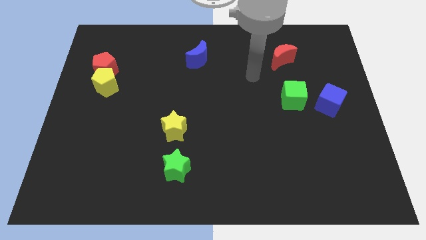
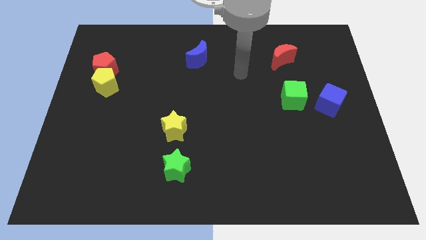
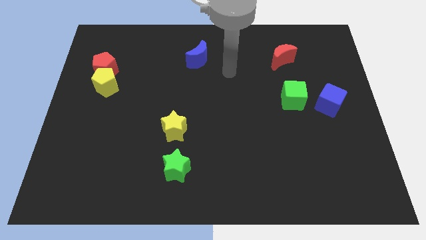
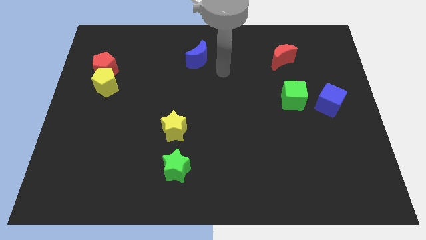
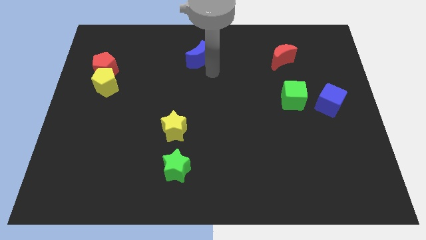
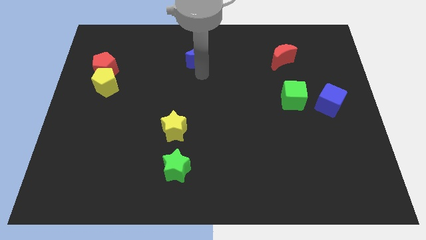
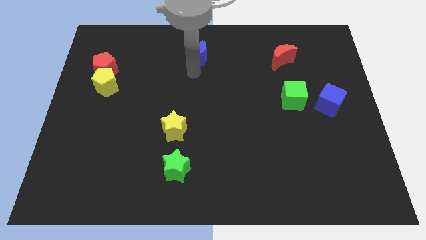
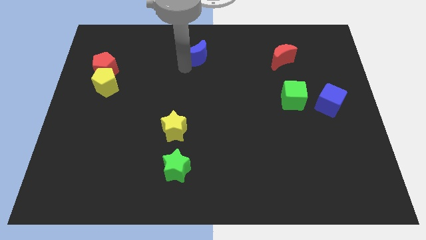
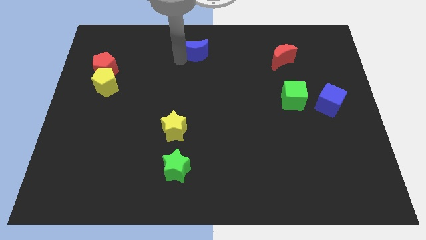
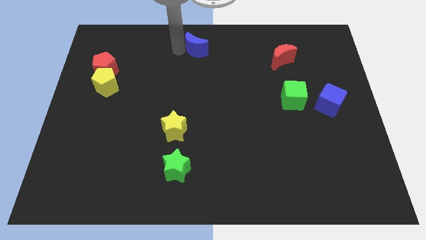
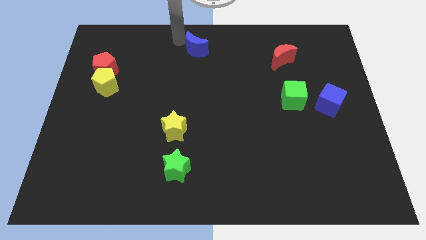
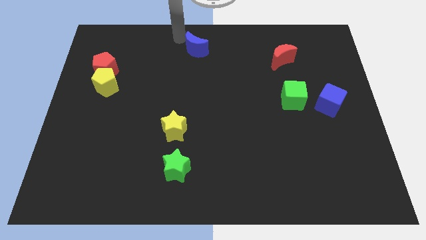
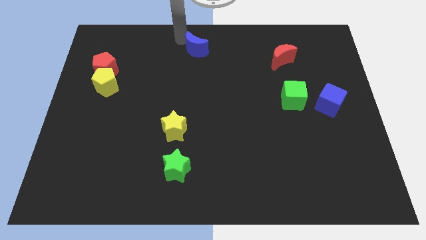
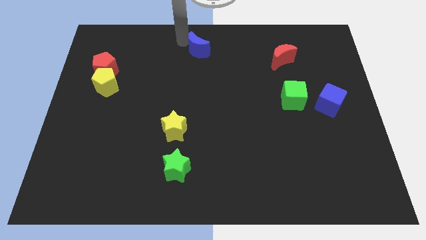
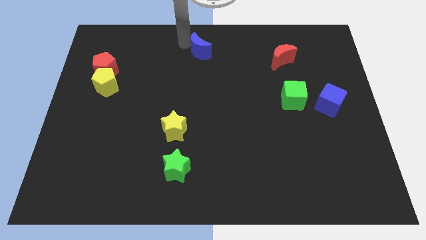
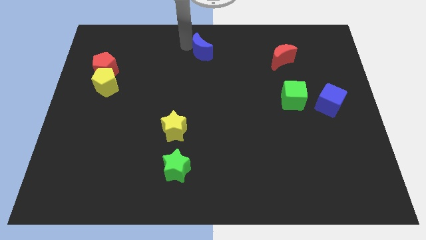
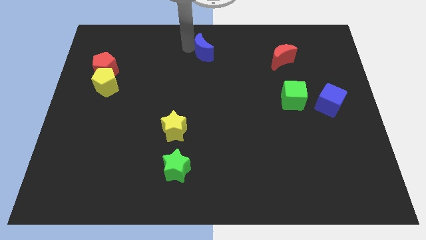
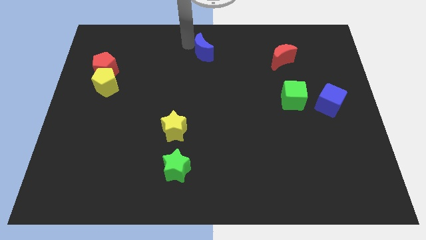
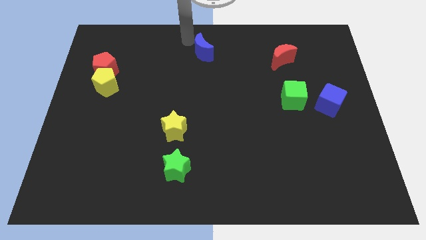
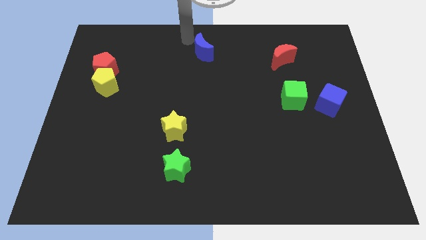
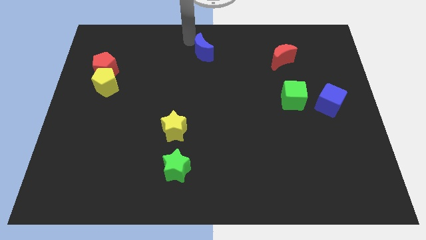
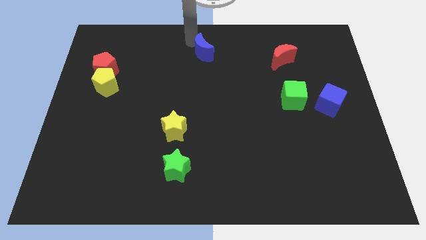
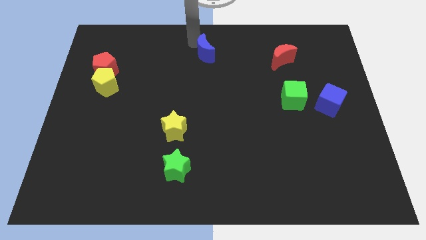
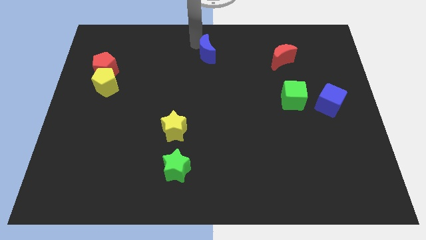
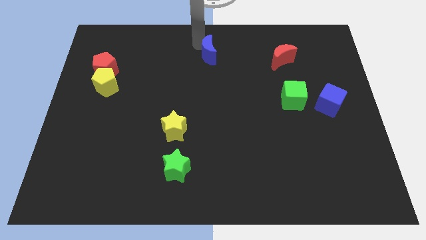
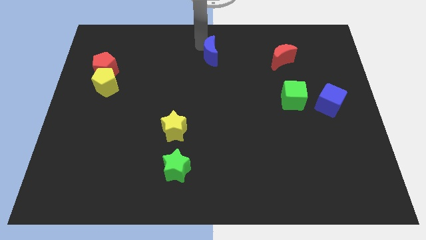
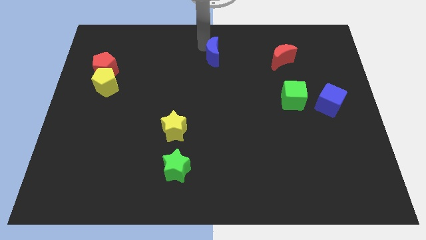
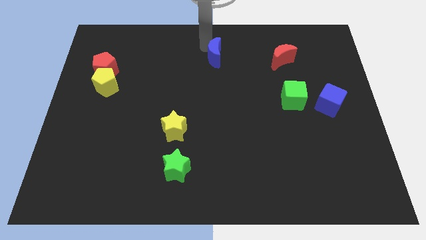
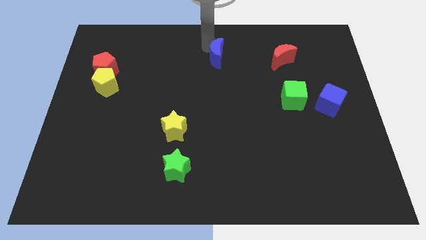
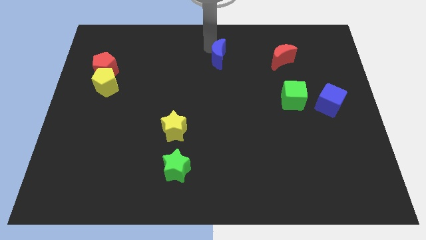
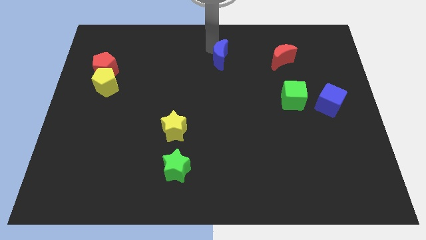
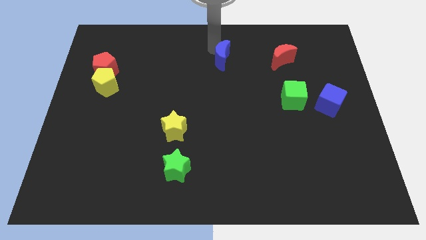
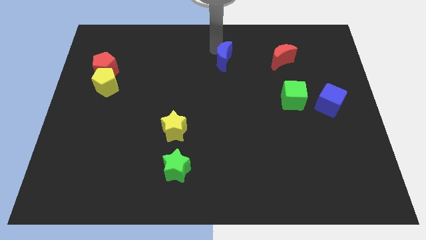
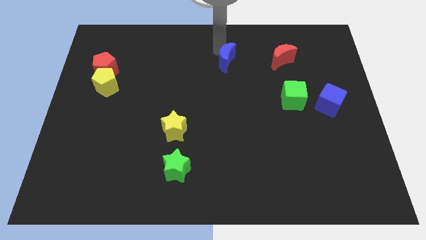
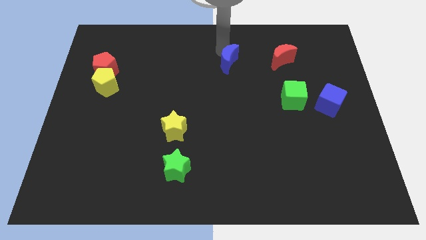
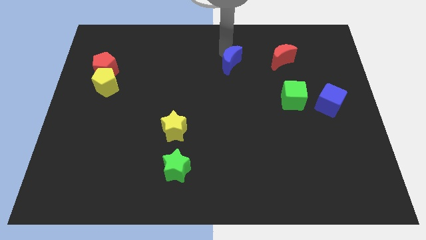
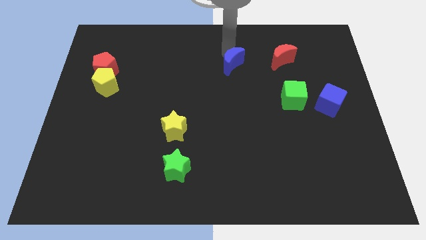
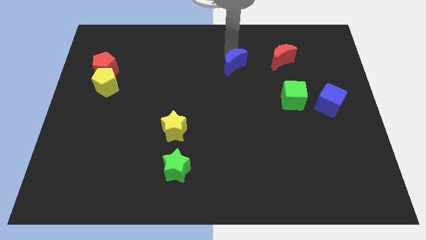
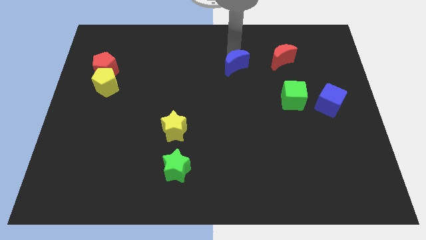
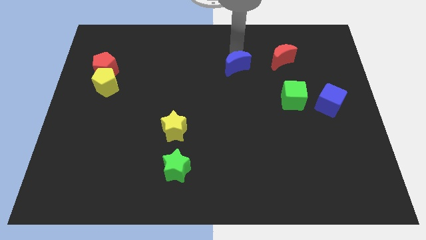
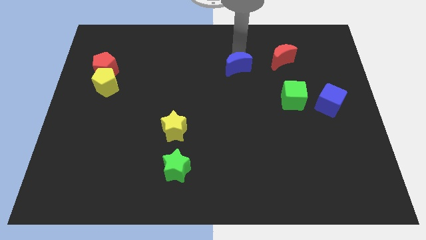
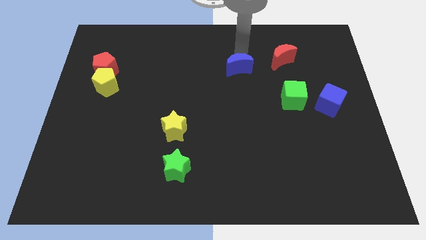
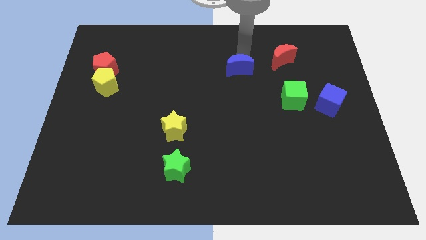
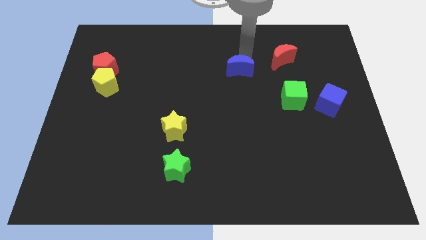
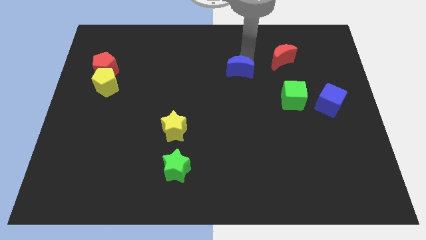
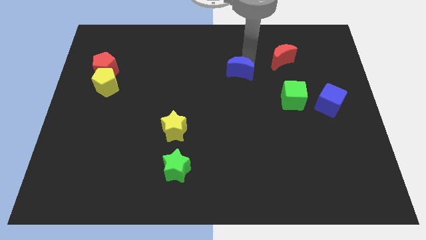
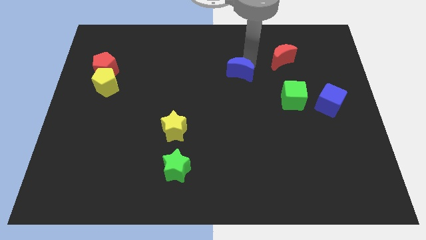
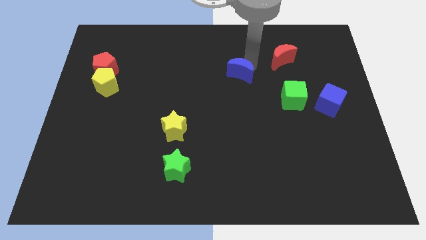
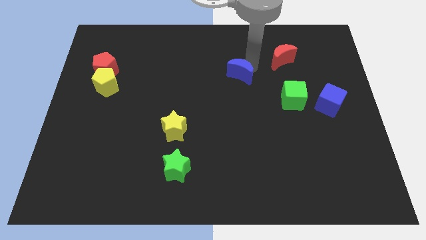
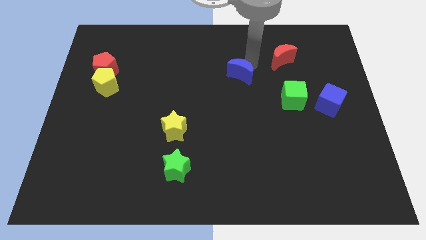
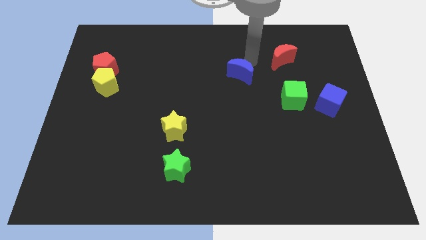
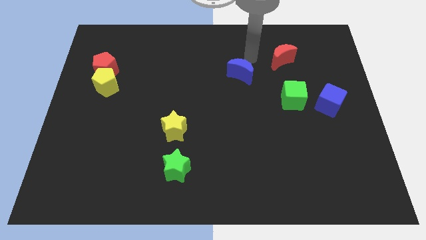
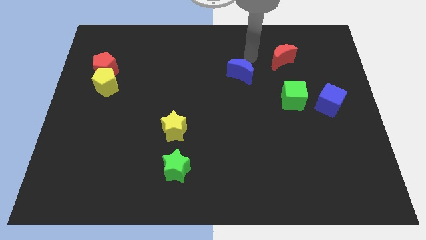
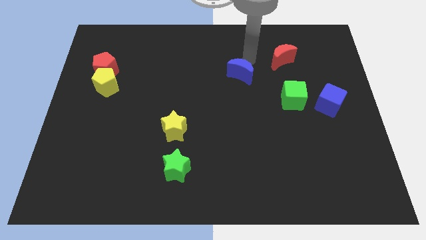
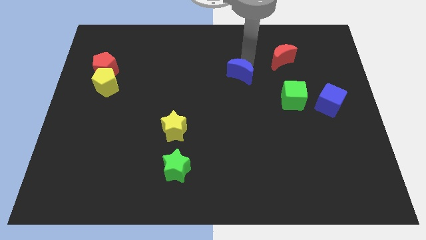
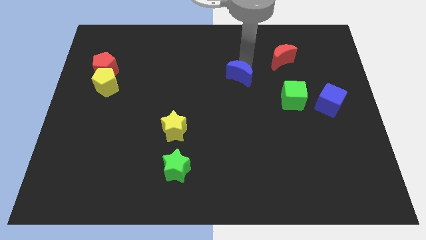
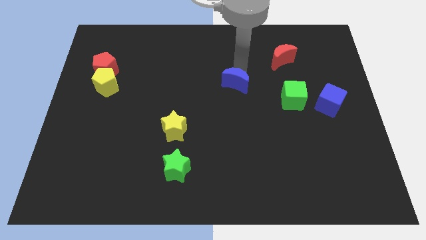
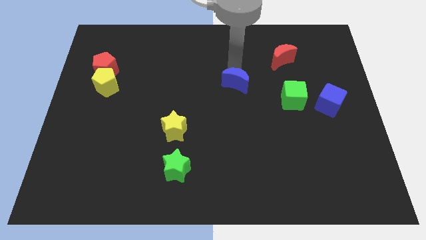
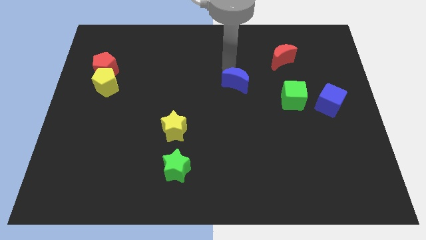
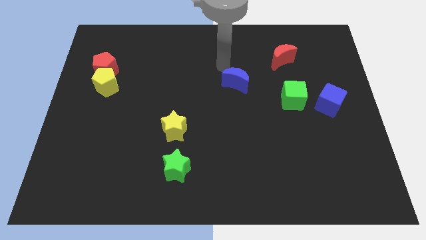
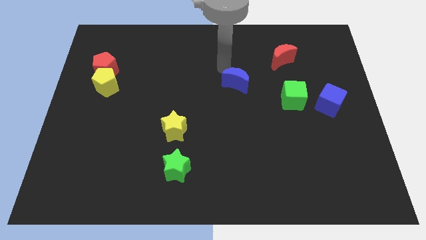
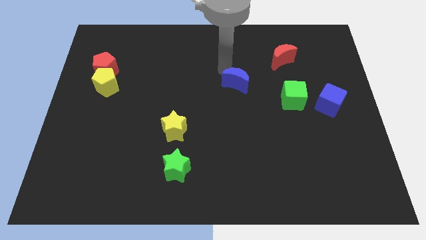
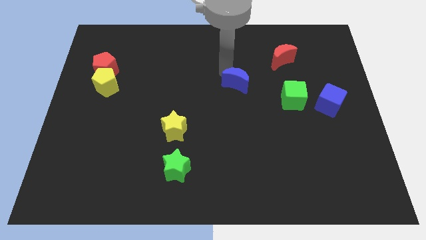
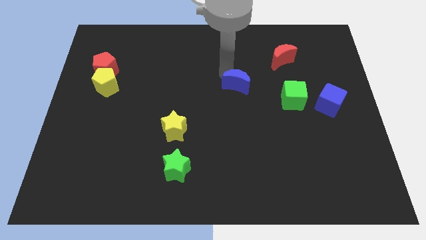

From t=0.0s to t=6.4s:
put the blue moon just left of the green cube

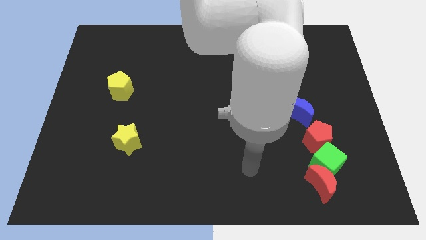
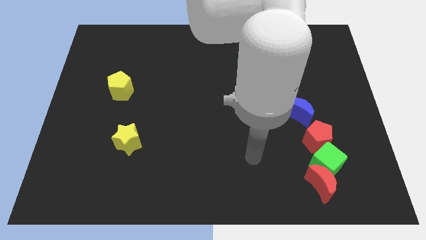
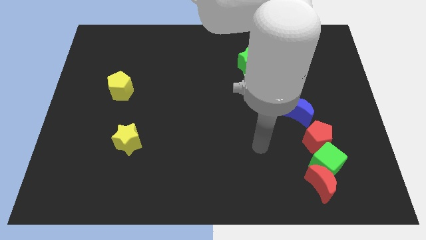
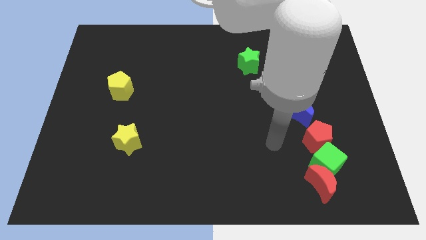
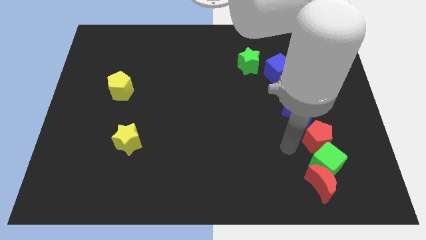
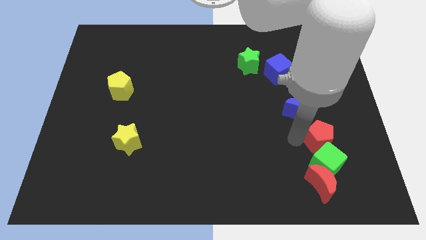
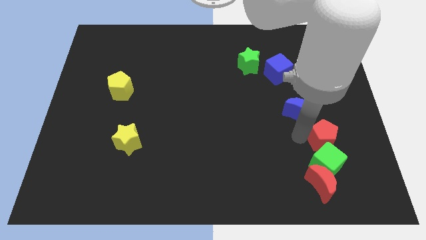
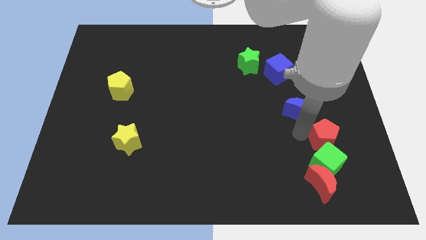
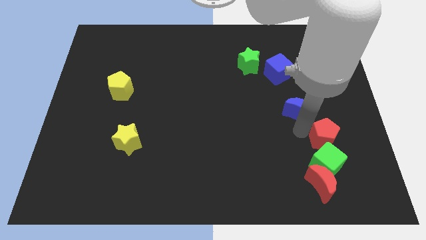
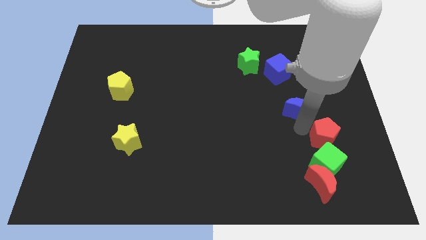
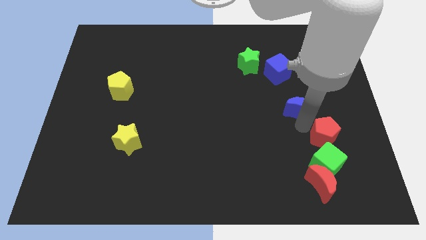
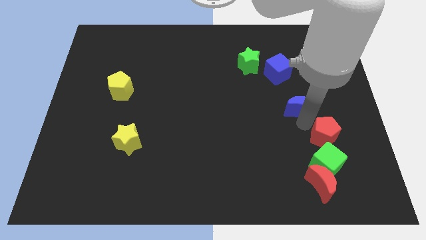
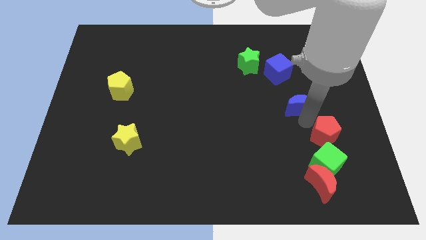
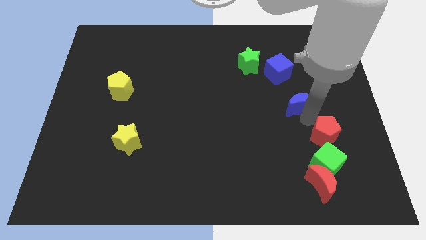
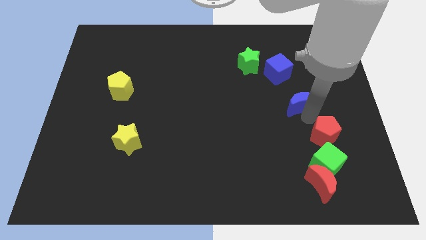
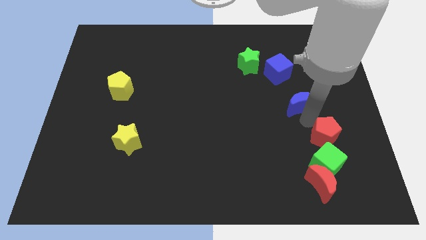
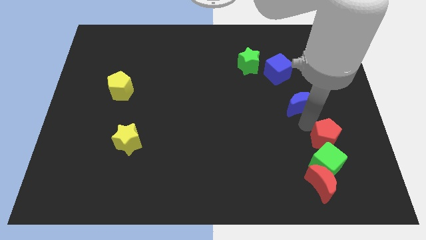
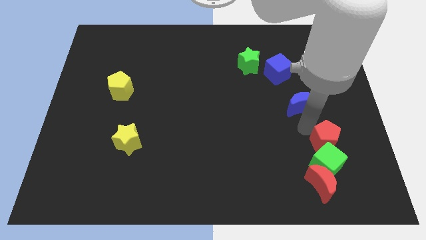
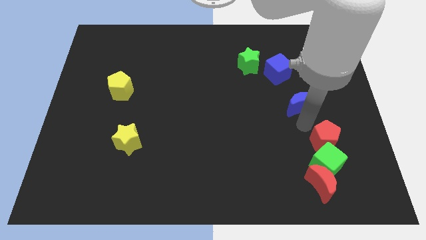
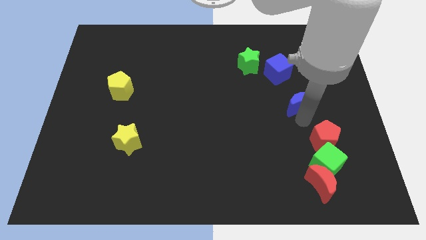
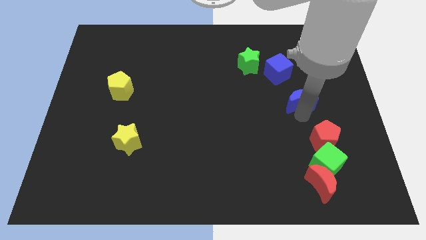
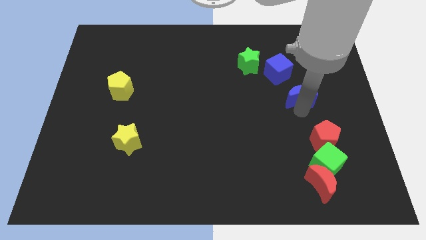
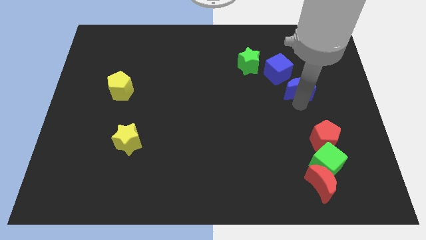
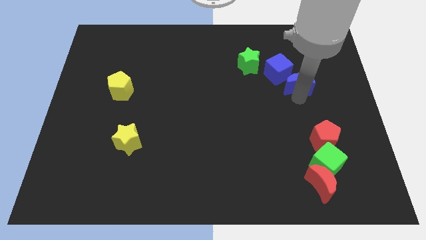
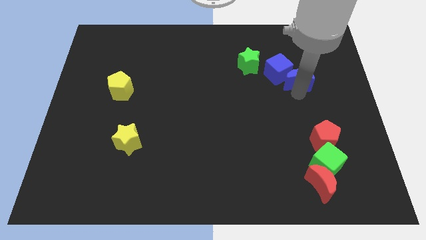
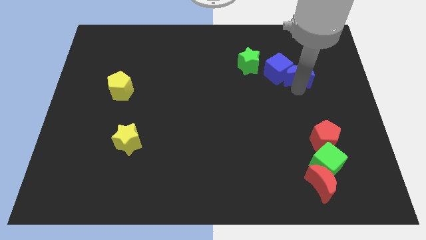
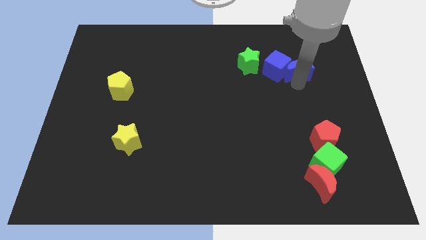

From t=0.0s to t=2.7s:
push the blue moon to the top right side of the blue cube
